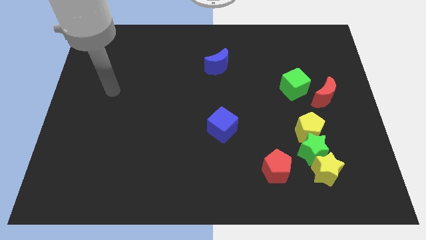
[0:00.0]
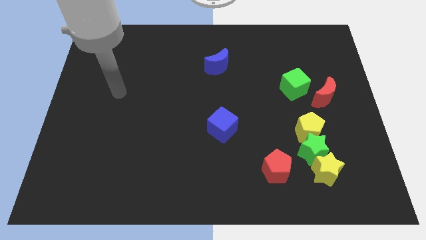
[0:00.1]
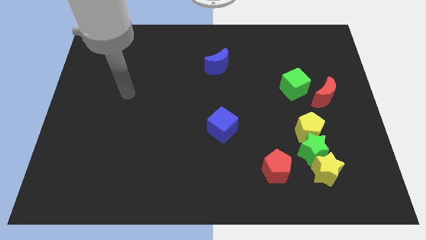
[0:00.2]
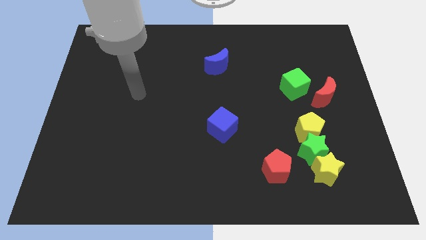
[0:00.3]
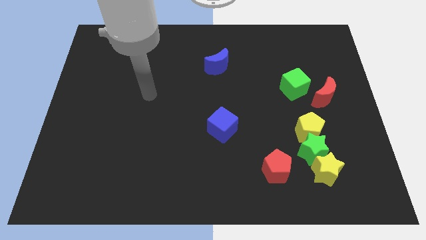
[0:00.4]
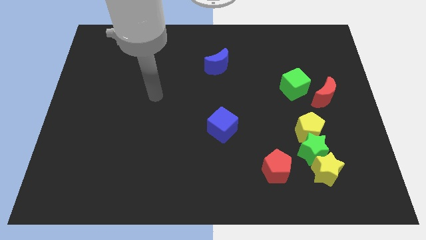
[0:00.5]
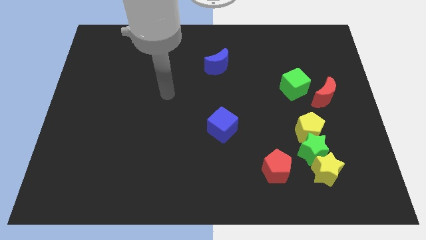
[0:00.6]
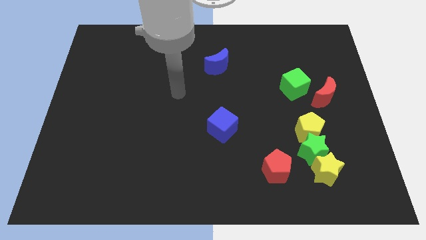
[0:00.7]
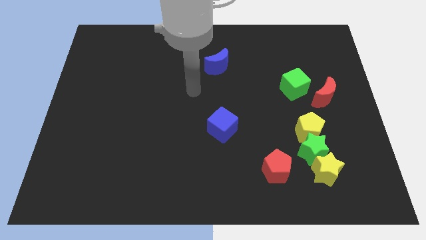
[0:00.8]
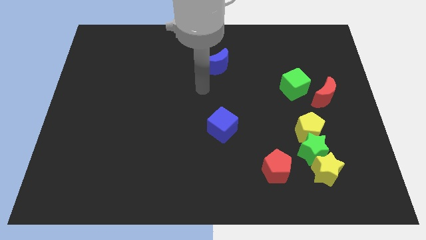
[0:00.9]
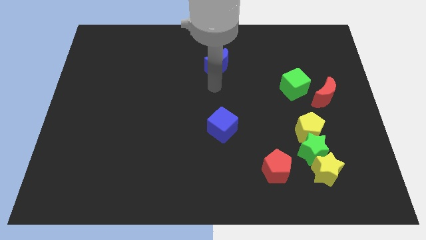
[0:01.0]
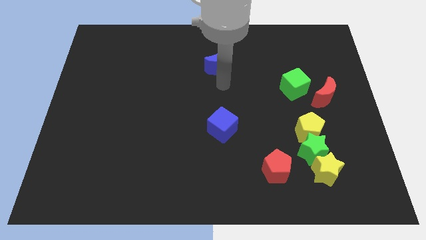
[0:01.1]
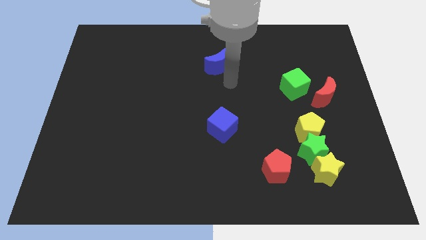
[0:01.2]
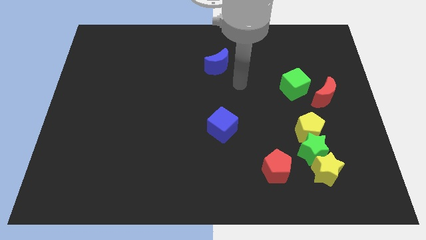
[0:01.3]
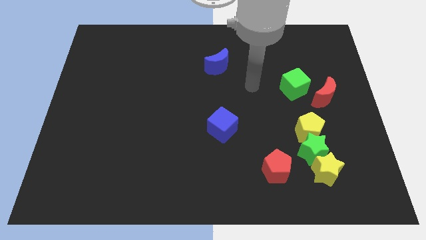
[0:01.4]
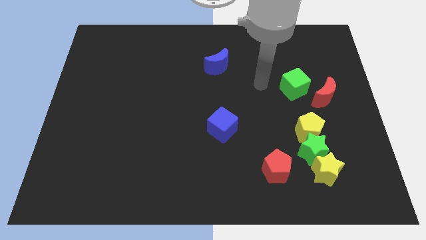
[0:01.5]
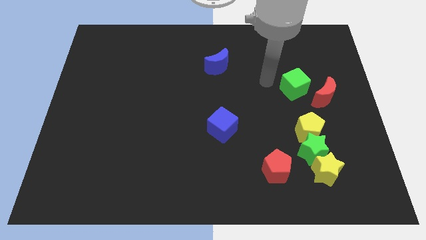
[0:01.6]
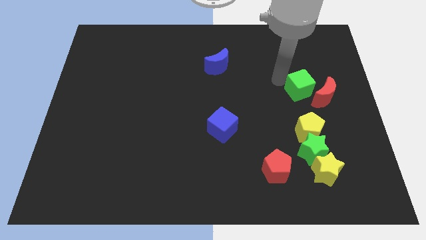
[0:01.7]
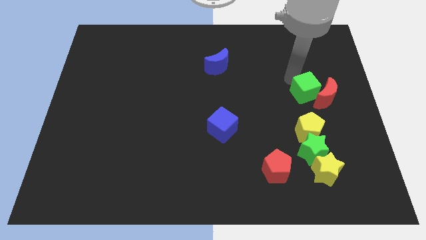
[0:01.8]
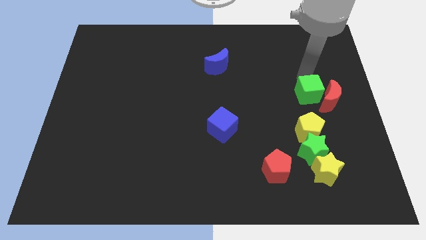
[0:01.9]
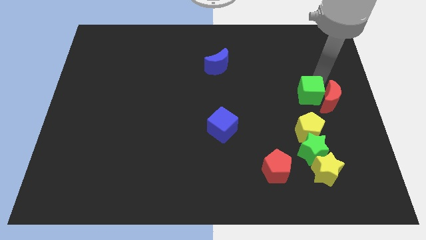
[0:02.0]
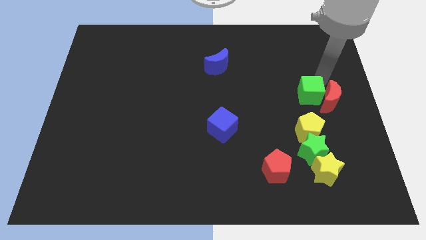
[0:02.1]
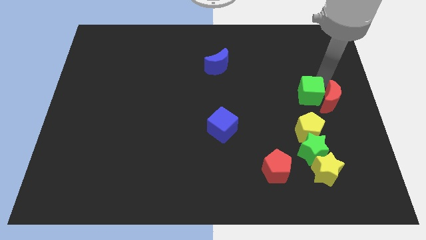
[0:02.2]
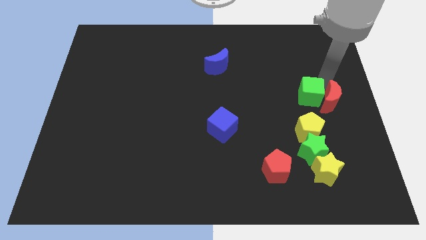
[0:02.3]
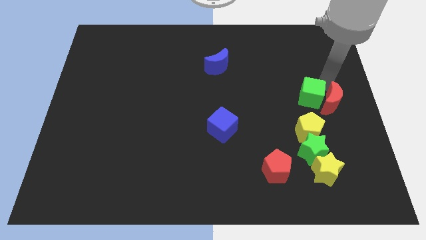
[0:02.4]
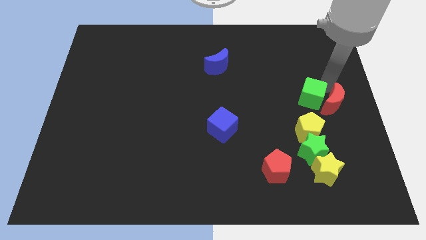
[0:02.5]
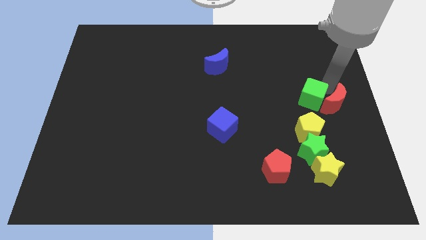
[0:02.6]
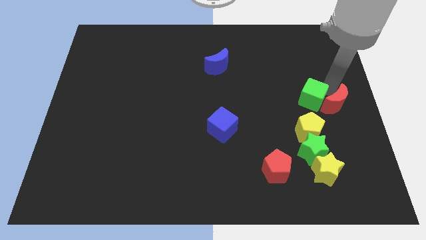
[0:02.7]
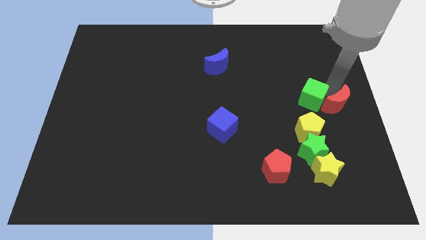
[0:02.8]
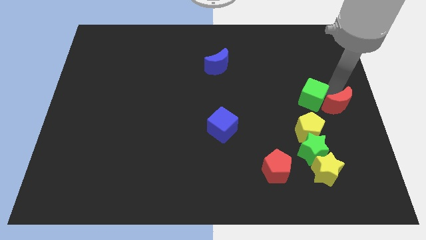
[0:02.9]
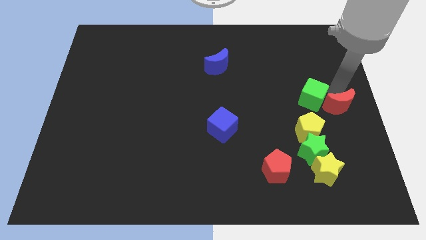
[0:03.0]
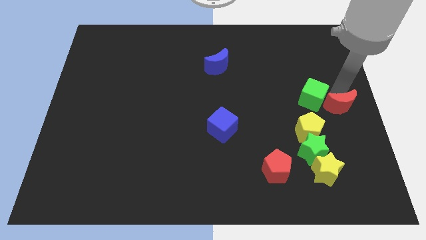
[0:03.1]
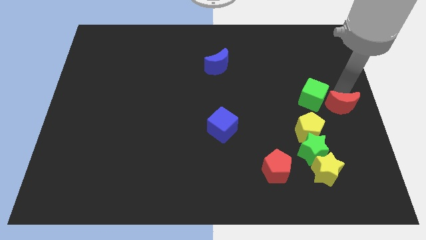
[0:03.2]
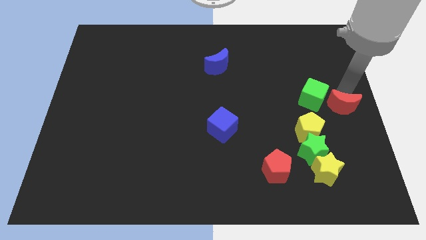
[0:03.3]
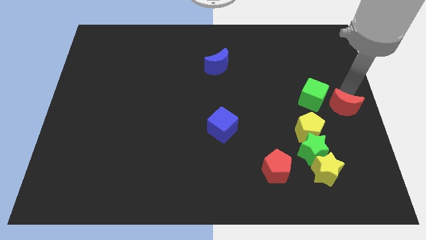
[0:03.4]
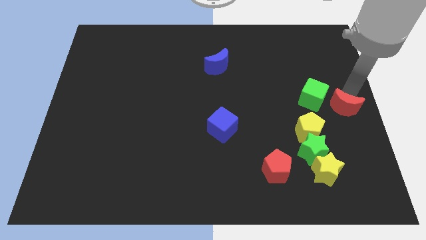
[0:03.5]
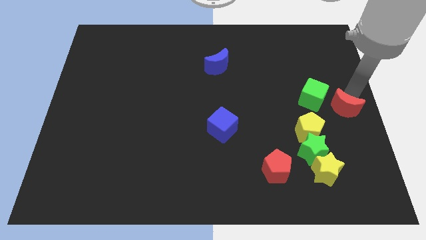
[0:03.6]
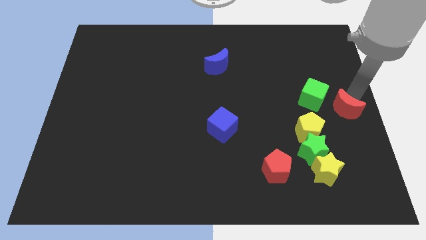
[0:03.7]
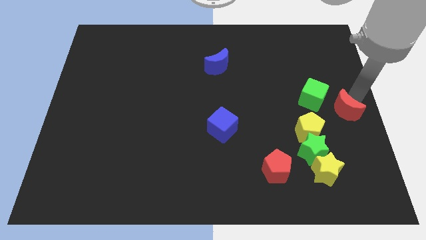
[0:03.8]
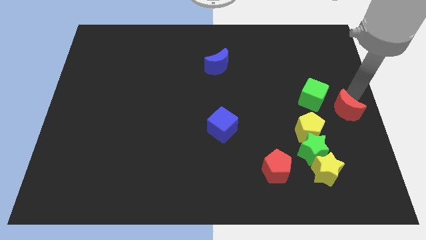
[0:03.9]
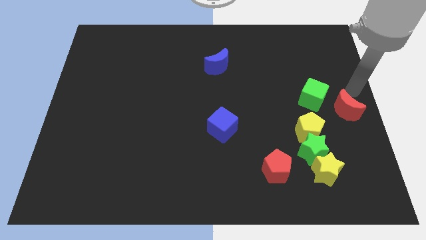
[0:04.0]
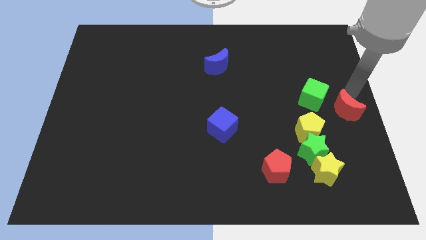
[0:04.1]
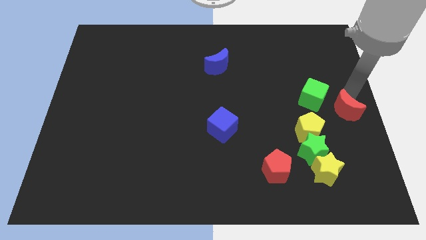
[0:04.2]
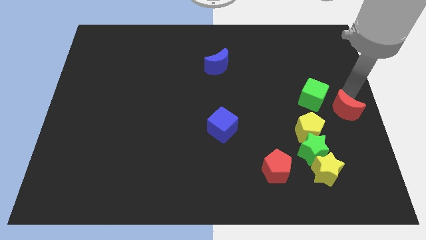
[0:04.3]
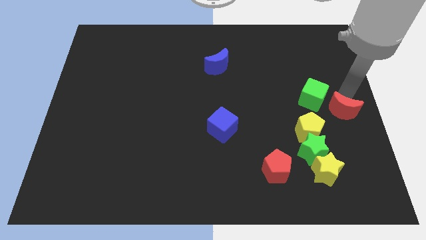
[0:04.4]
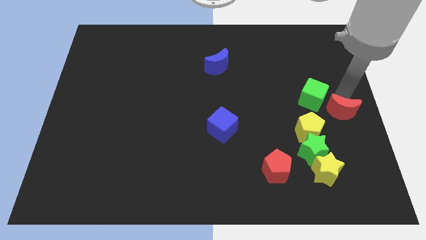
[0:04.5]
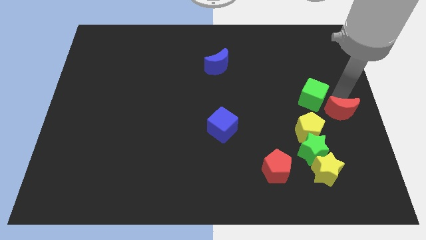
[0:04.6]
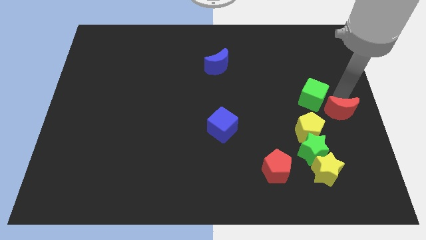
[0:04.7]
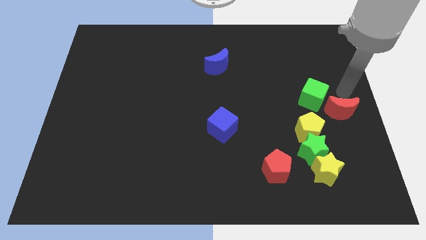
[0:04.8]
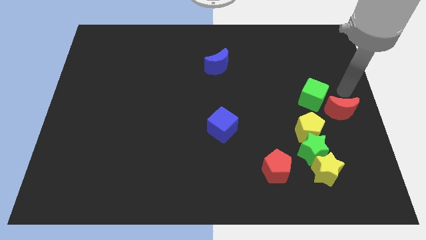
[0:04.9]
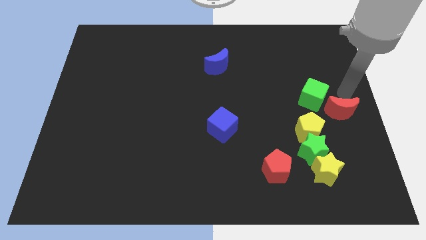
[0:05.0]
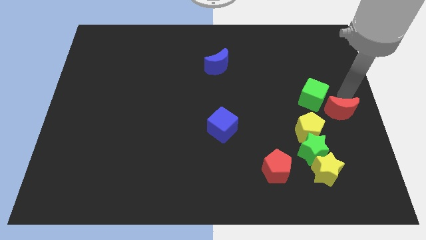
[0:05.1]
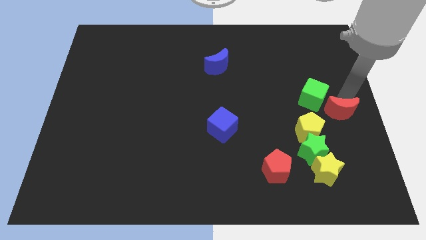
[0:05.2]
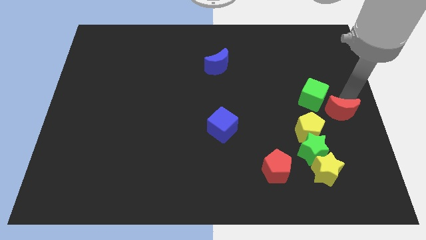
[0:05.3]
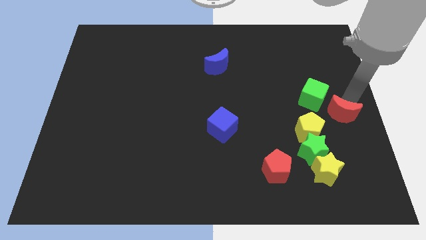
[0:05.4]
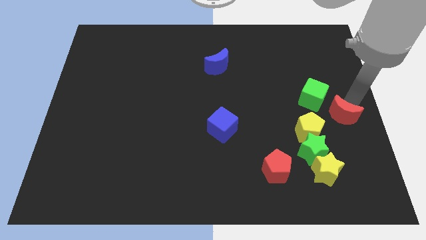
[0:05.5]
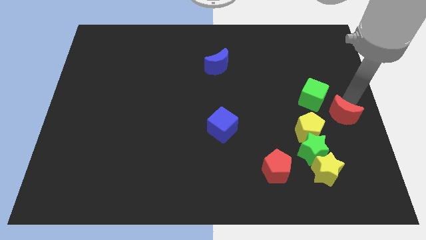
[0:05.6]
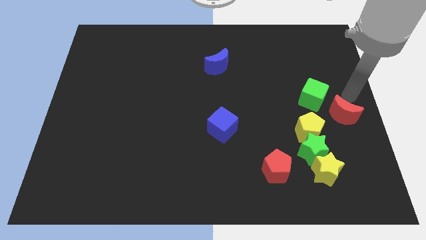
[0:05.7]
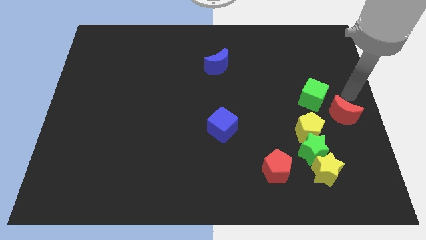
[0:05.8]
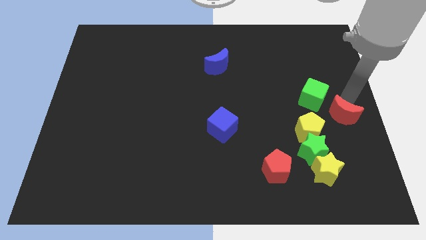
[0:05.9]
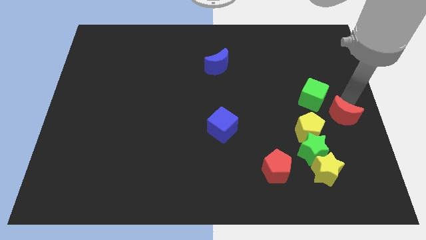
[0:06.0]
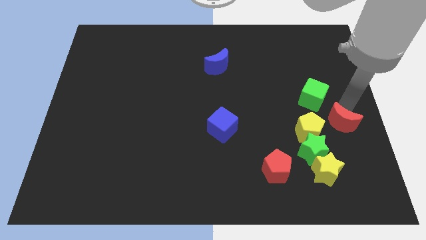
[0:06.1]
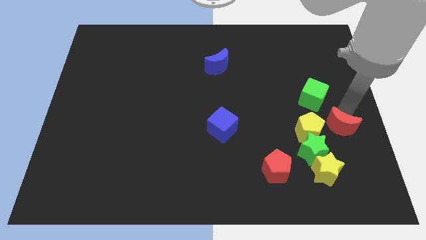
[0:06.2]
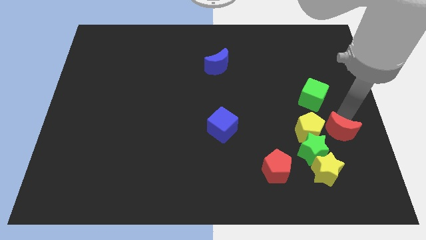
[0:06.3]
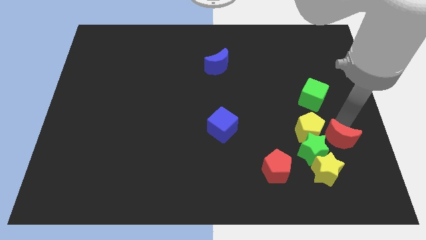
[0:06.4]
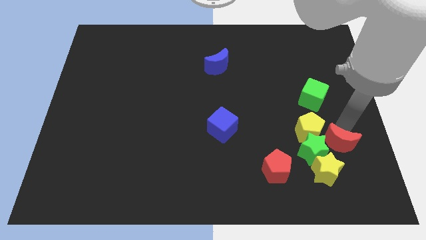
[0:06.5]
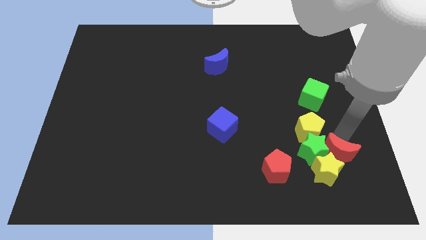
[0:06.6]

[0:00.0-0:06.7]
put the red moon towards the yellow star

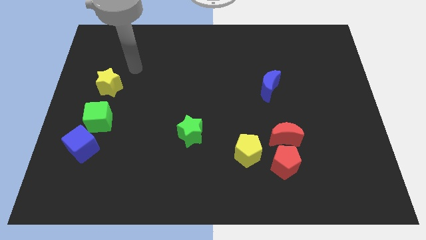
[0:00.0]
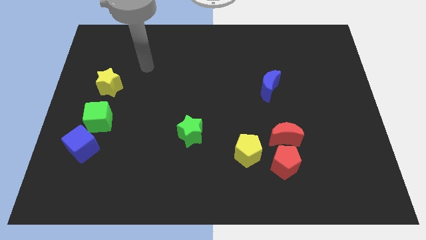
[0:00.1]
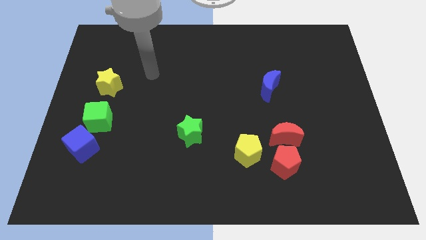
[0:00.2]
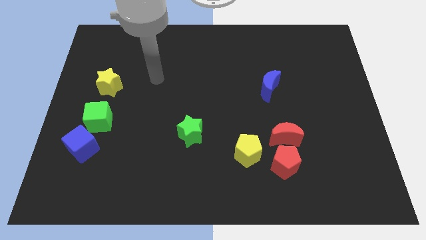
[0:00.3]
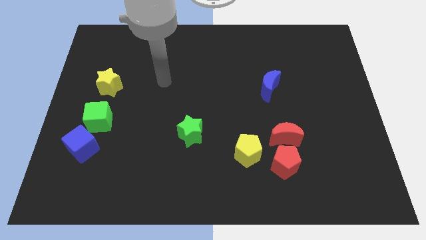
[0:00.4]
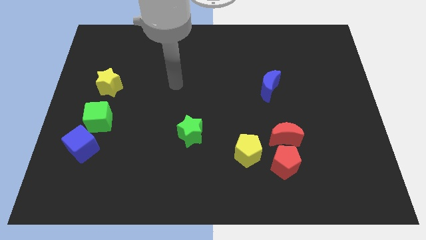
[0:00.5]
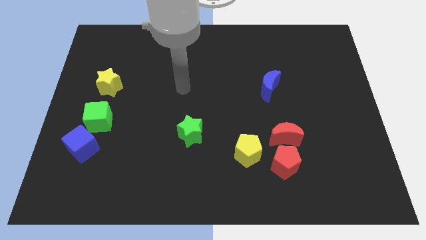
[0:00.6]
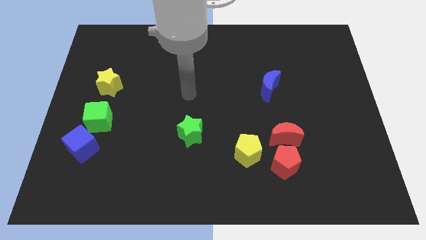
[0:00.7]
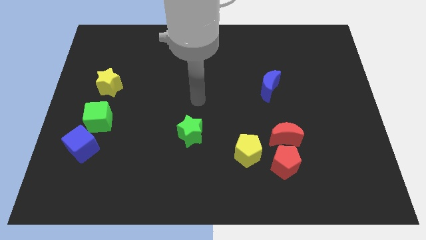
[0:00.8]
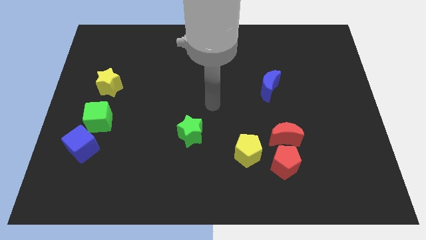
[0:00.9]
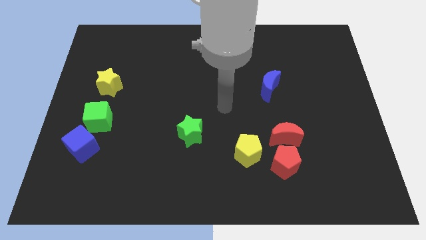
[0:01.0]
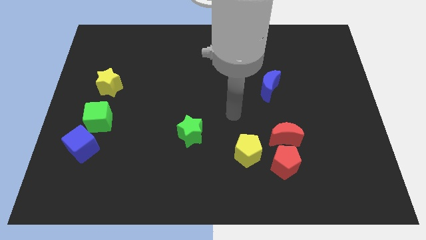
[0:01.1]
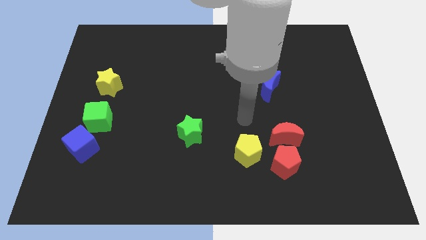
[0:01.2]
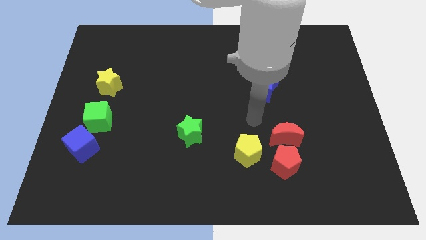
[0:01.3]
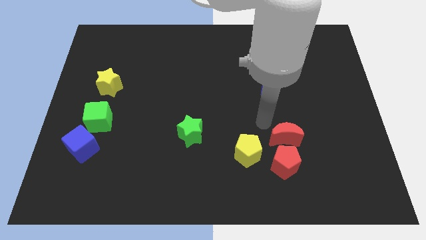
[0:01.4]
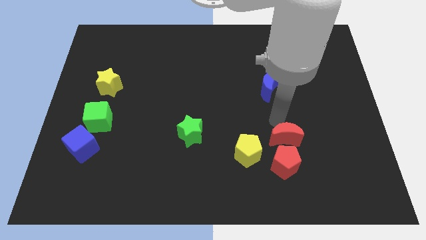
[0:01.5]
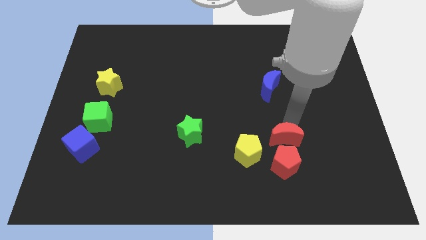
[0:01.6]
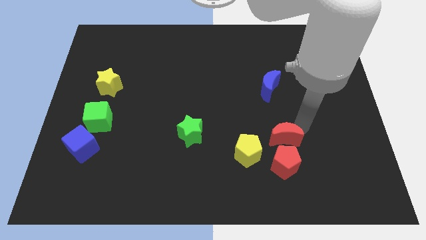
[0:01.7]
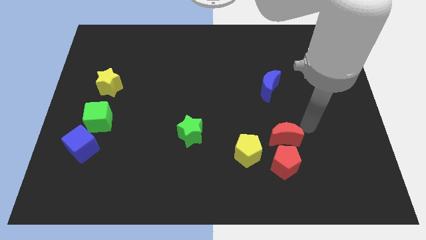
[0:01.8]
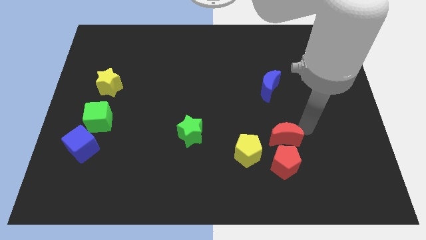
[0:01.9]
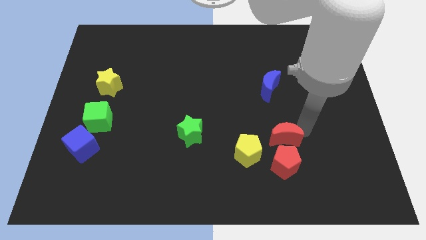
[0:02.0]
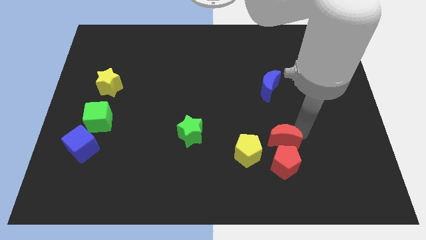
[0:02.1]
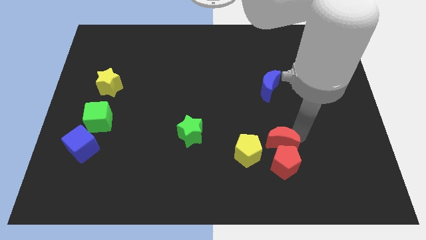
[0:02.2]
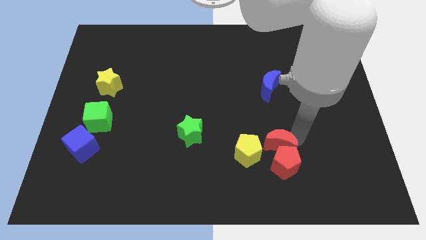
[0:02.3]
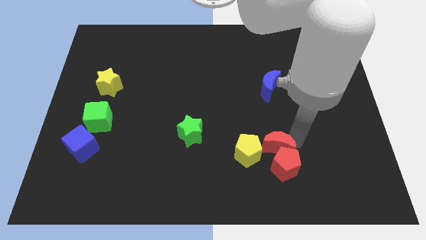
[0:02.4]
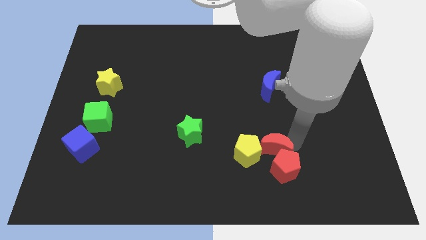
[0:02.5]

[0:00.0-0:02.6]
slide the red moon towards the yellow pentagon
